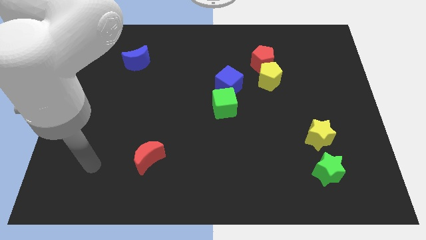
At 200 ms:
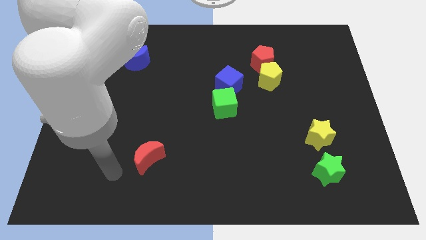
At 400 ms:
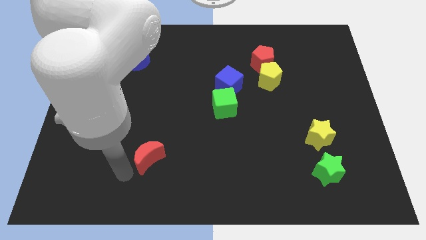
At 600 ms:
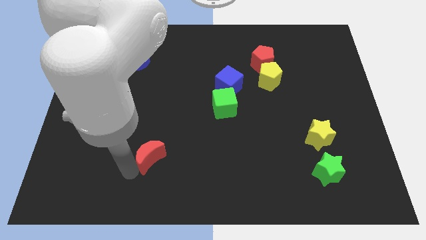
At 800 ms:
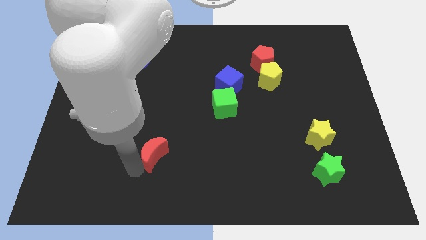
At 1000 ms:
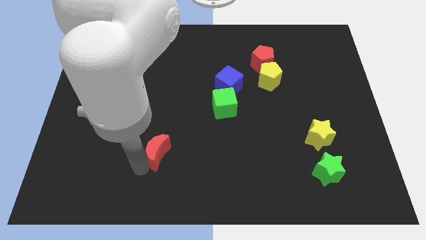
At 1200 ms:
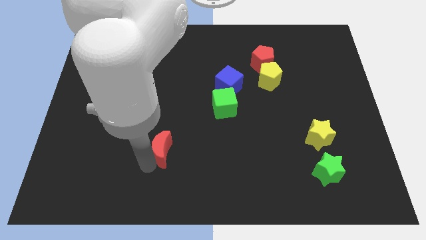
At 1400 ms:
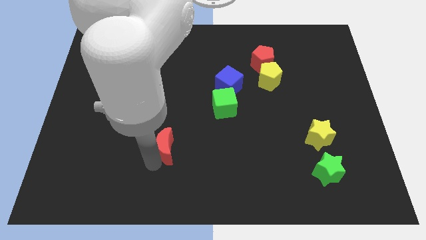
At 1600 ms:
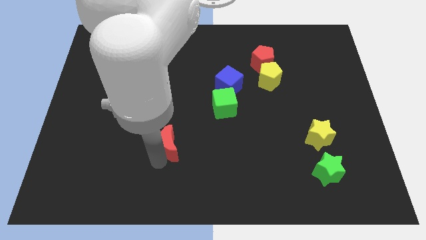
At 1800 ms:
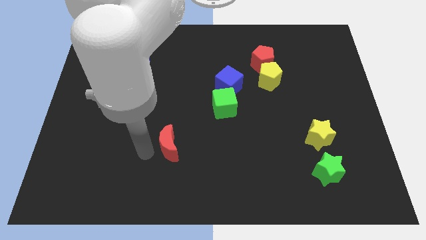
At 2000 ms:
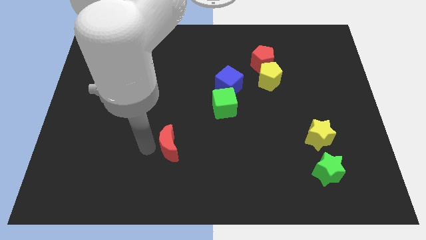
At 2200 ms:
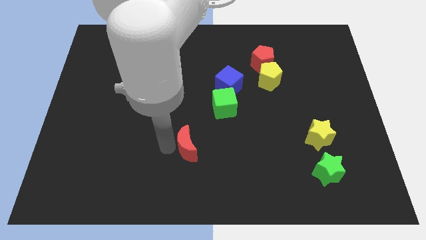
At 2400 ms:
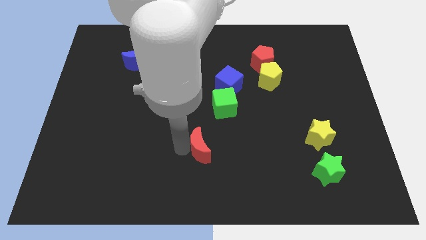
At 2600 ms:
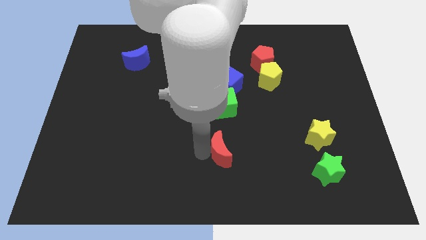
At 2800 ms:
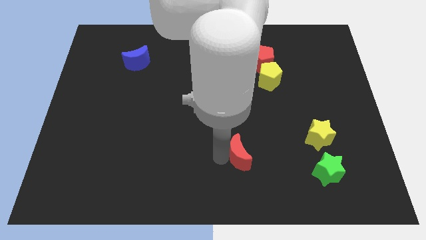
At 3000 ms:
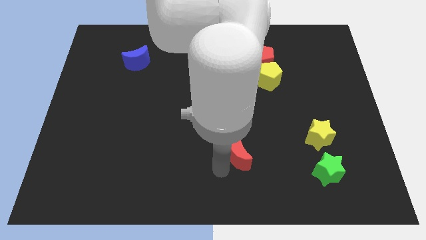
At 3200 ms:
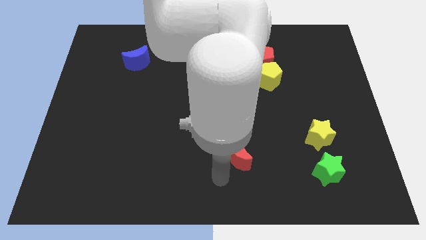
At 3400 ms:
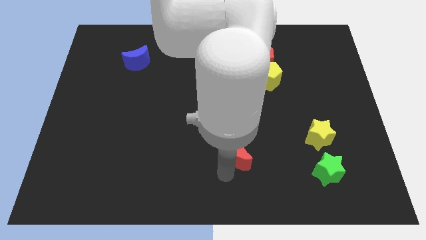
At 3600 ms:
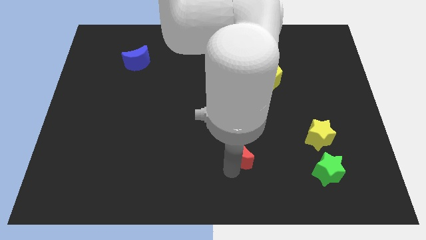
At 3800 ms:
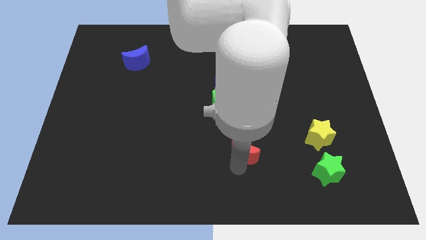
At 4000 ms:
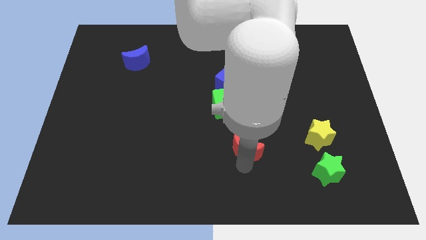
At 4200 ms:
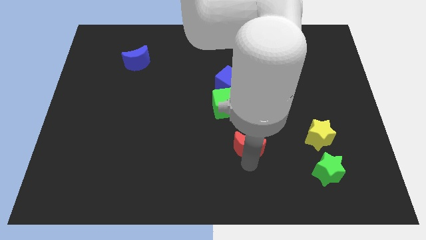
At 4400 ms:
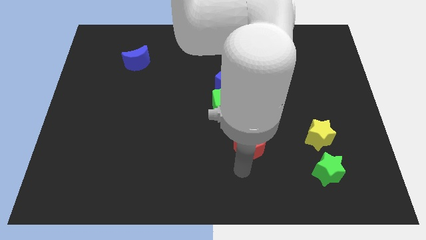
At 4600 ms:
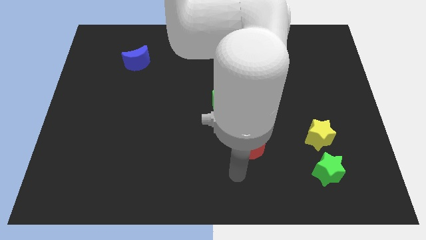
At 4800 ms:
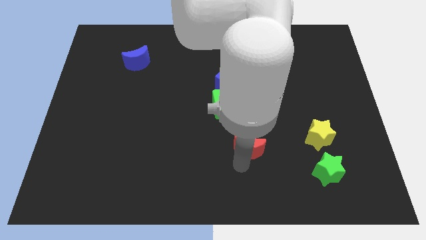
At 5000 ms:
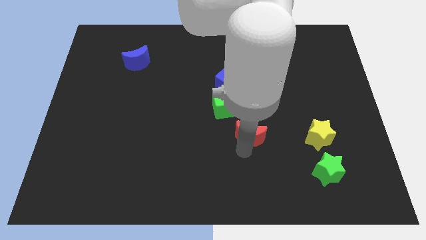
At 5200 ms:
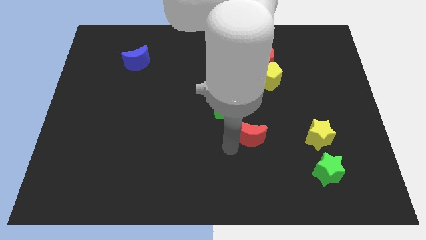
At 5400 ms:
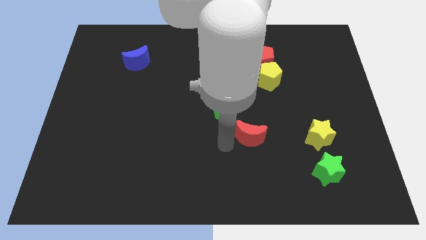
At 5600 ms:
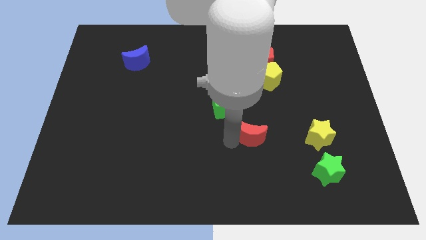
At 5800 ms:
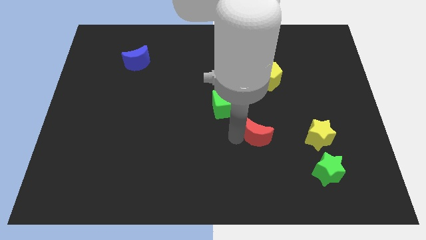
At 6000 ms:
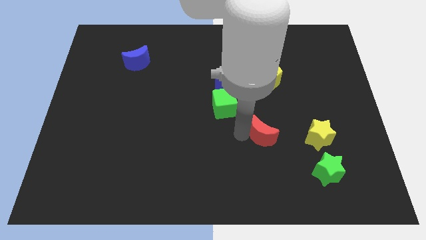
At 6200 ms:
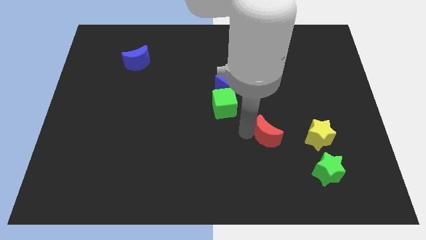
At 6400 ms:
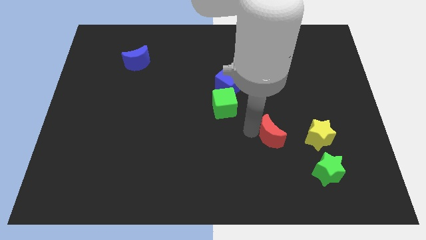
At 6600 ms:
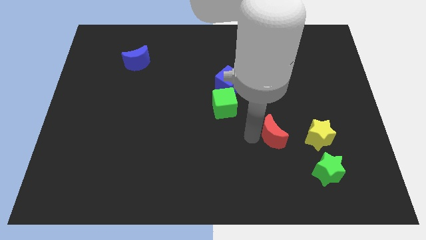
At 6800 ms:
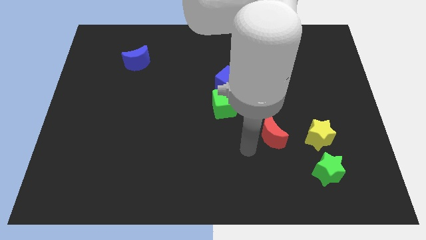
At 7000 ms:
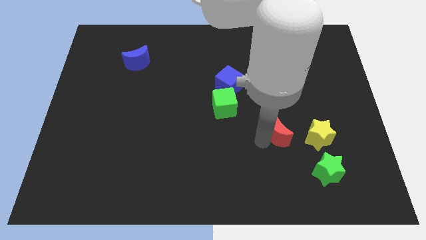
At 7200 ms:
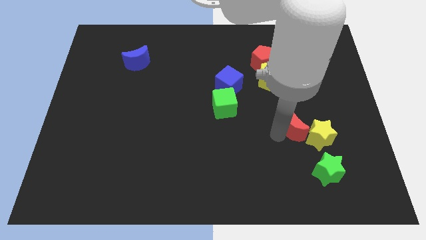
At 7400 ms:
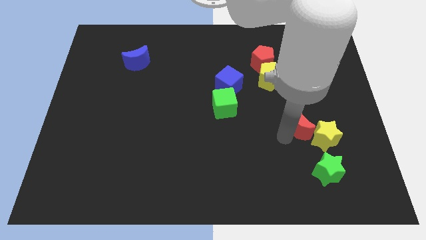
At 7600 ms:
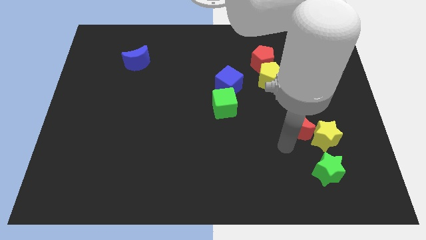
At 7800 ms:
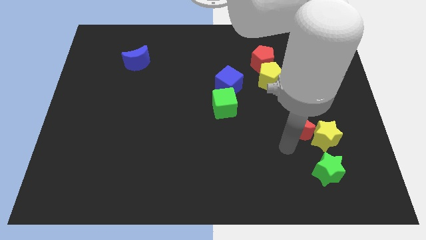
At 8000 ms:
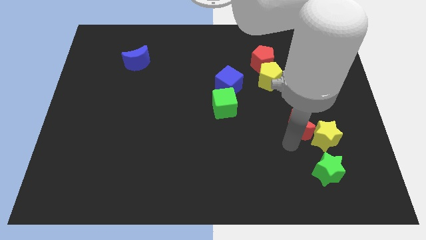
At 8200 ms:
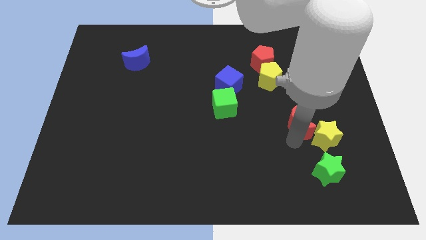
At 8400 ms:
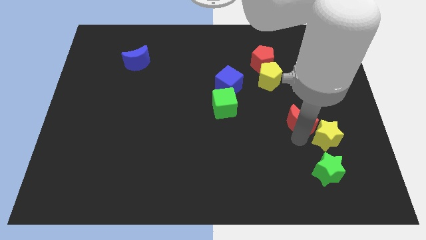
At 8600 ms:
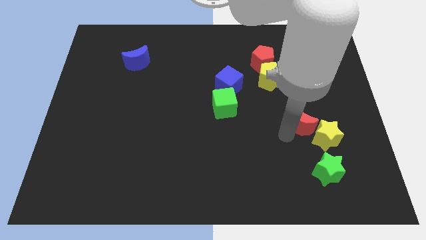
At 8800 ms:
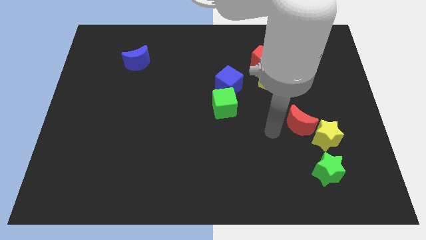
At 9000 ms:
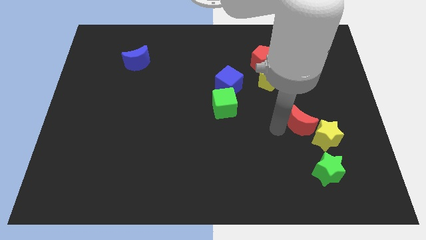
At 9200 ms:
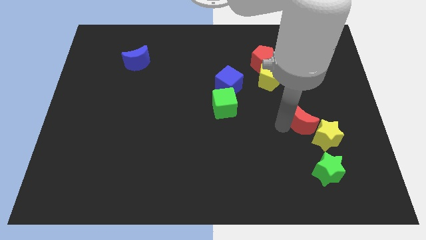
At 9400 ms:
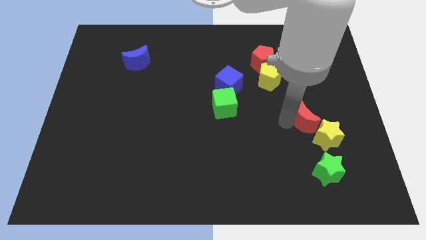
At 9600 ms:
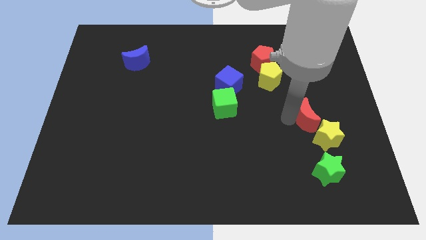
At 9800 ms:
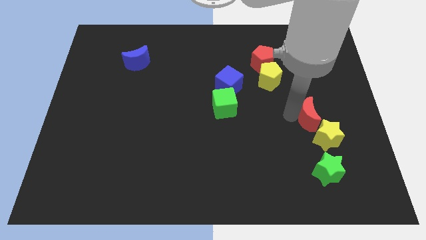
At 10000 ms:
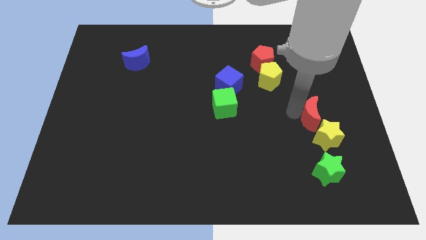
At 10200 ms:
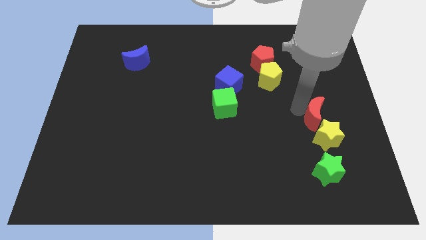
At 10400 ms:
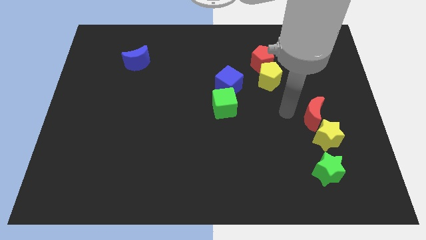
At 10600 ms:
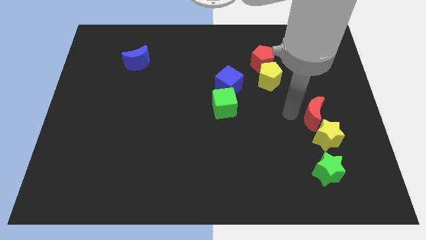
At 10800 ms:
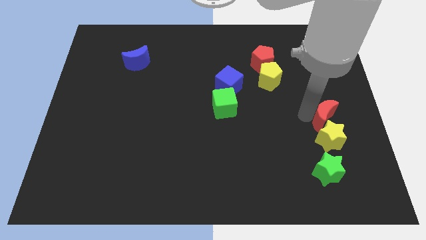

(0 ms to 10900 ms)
slide the red moon to the top right of the yellow star
